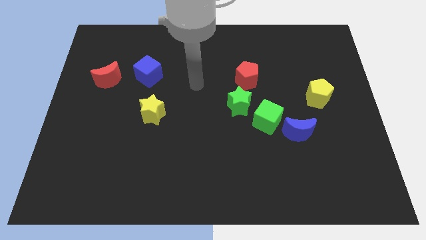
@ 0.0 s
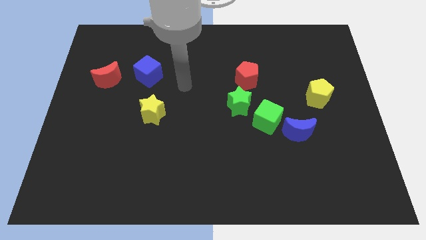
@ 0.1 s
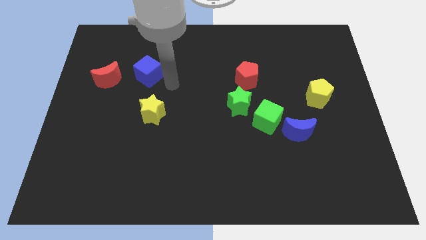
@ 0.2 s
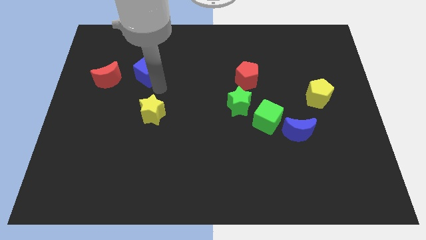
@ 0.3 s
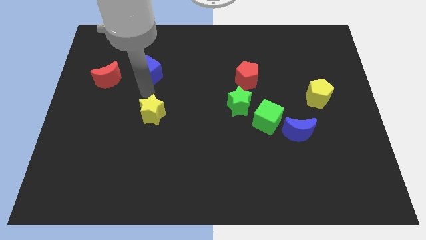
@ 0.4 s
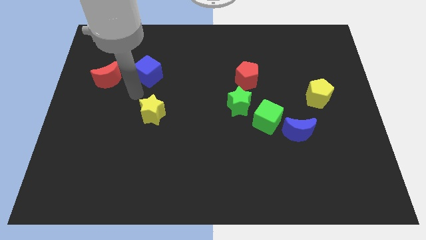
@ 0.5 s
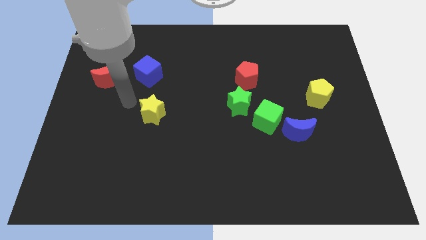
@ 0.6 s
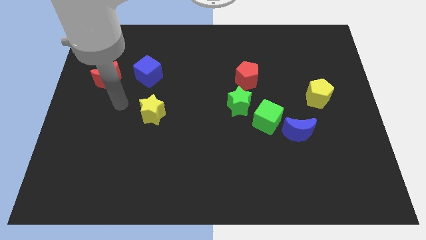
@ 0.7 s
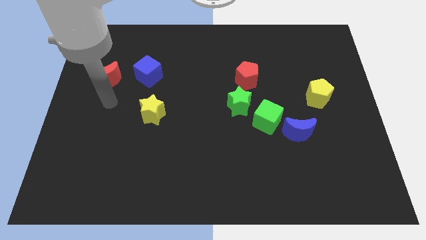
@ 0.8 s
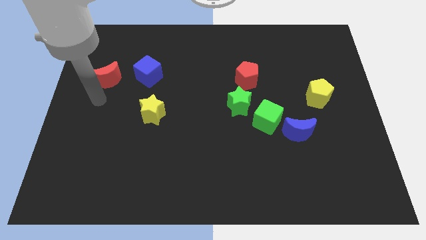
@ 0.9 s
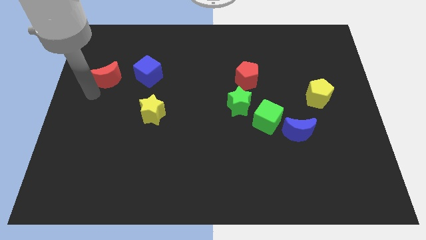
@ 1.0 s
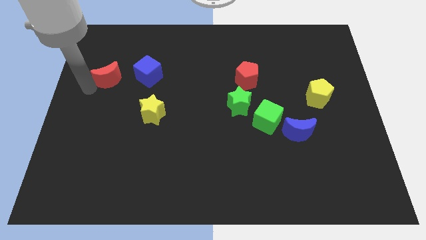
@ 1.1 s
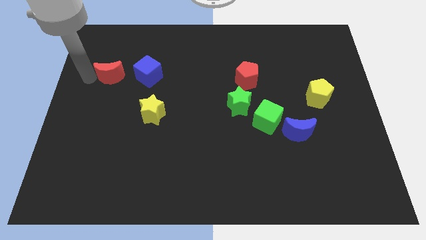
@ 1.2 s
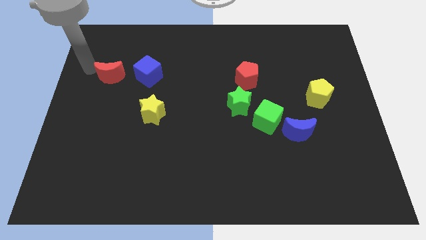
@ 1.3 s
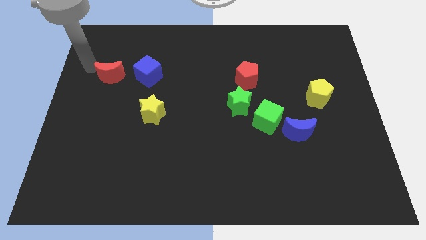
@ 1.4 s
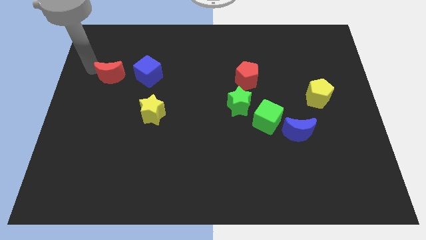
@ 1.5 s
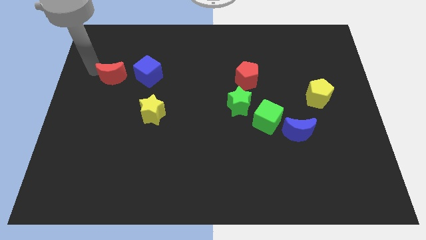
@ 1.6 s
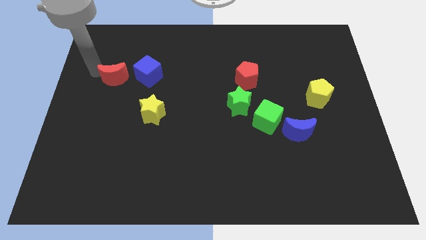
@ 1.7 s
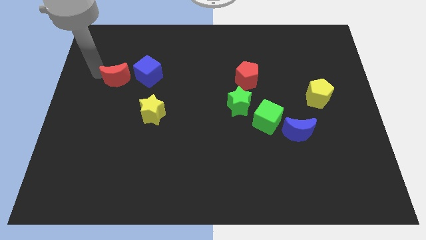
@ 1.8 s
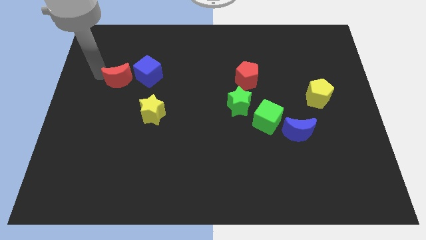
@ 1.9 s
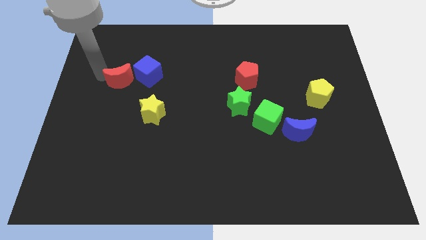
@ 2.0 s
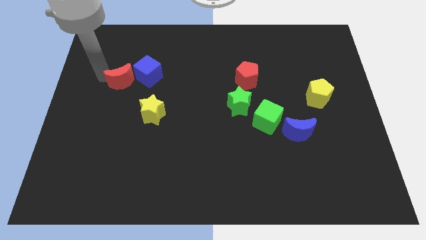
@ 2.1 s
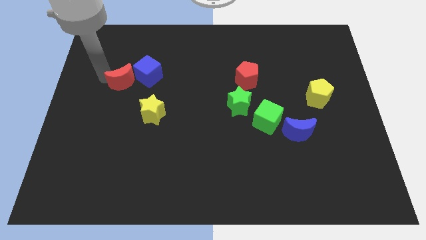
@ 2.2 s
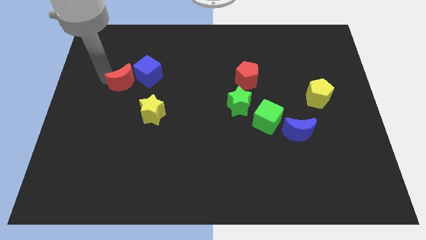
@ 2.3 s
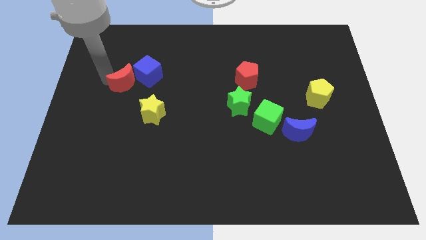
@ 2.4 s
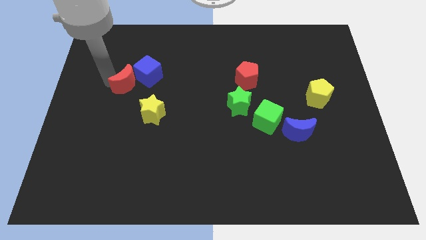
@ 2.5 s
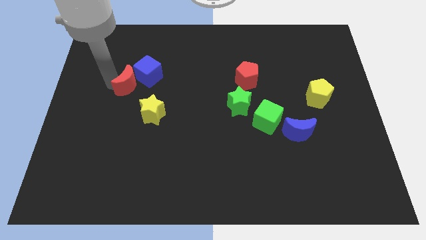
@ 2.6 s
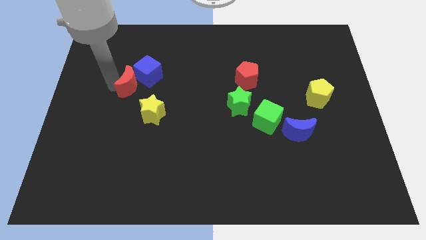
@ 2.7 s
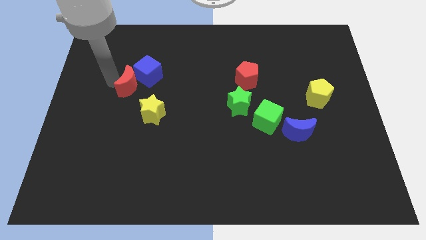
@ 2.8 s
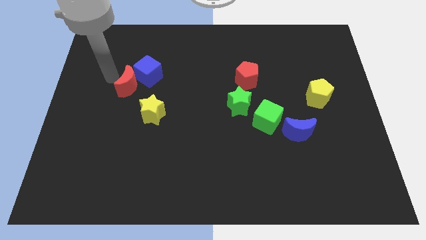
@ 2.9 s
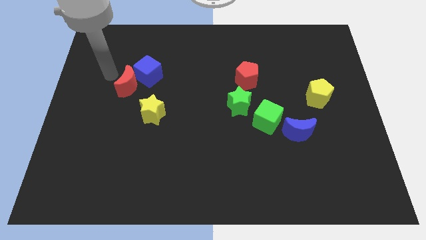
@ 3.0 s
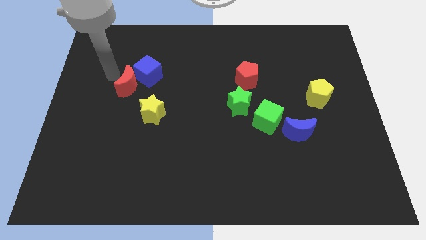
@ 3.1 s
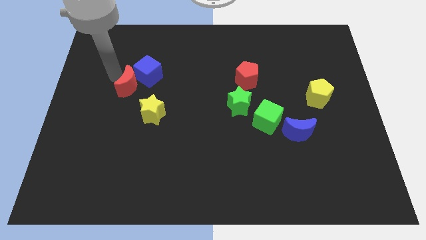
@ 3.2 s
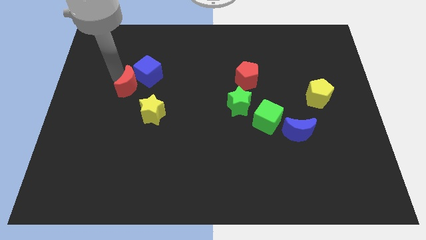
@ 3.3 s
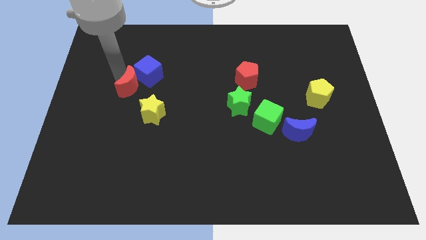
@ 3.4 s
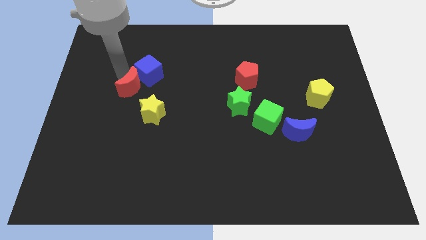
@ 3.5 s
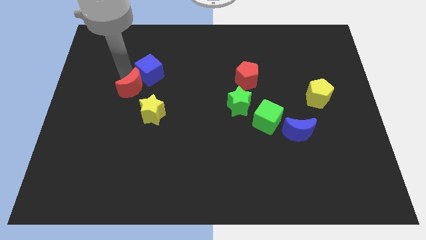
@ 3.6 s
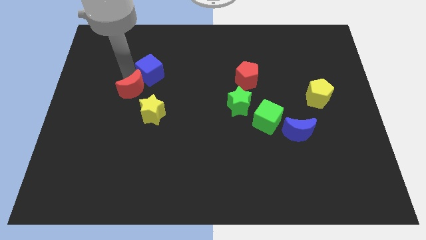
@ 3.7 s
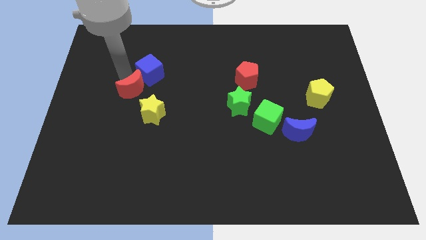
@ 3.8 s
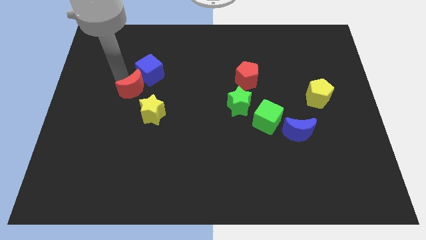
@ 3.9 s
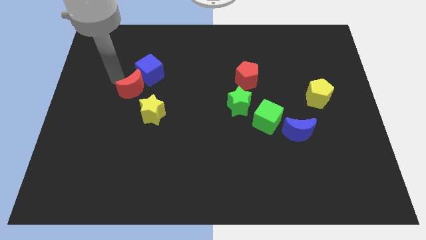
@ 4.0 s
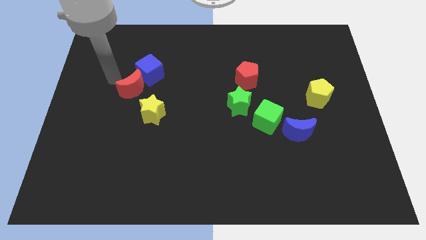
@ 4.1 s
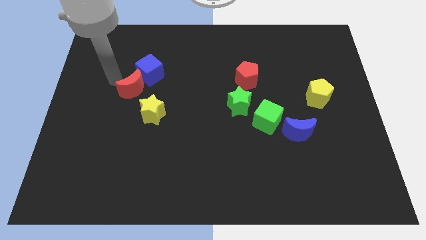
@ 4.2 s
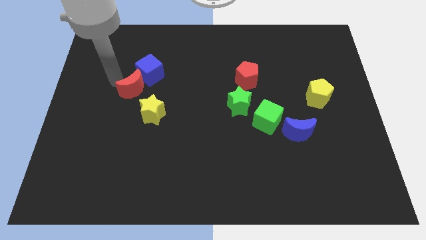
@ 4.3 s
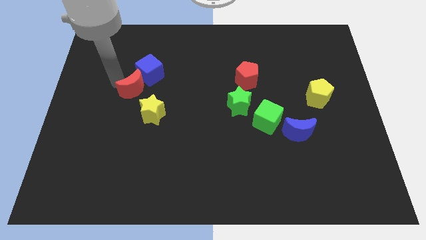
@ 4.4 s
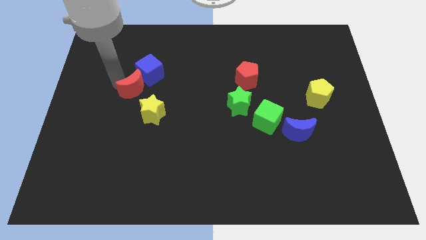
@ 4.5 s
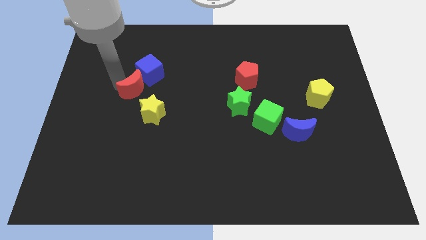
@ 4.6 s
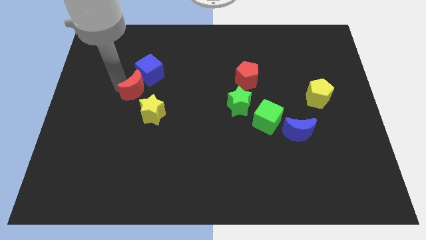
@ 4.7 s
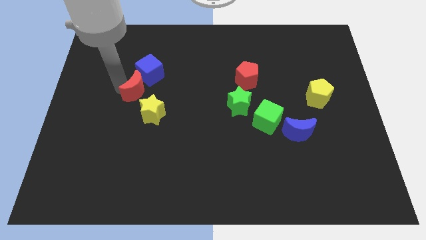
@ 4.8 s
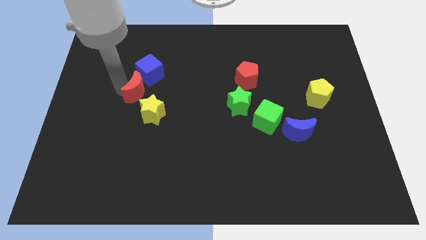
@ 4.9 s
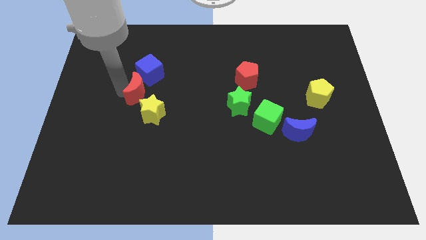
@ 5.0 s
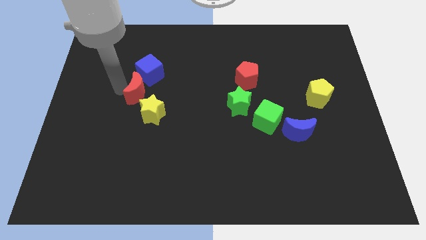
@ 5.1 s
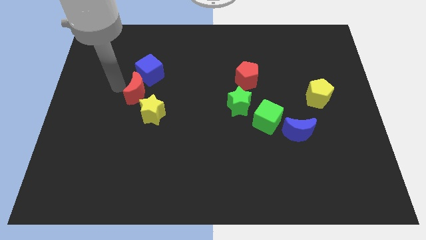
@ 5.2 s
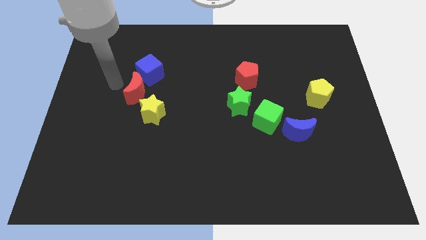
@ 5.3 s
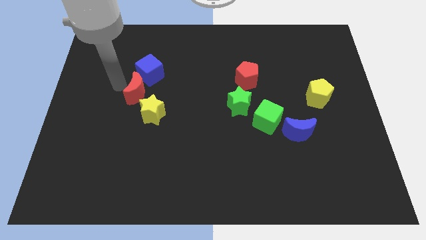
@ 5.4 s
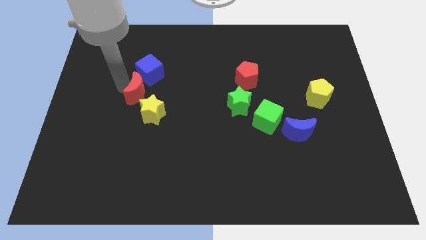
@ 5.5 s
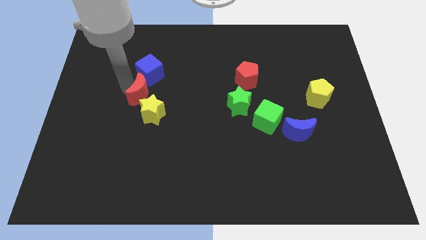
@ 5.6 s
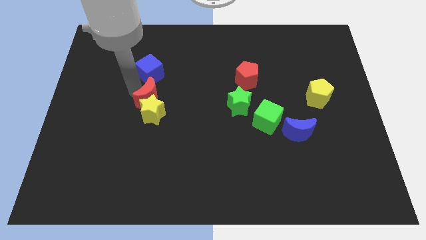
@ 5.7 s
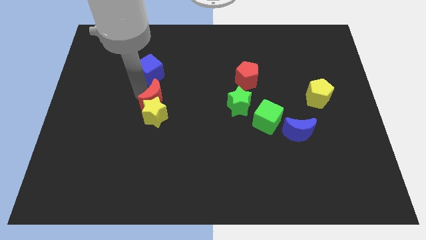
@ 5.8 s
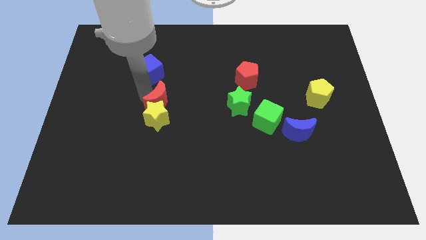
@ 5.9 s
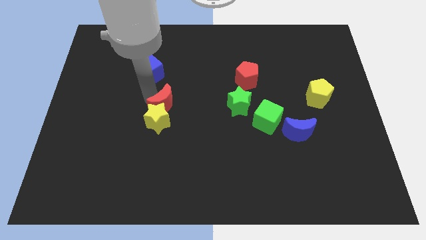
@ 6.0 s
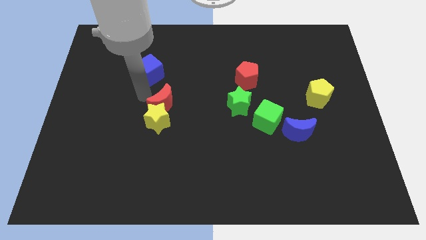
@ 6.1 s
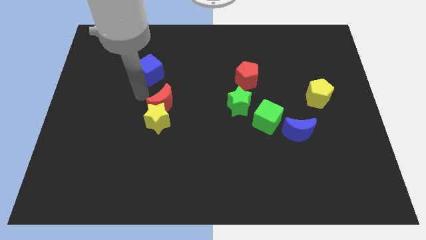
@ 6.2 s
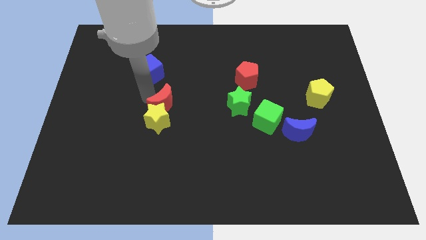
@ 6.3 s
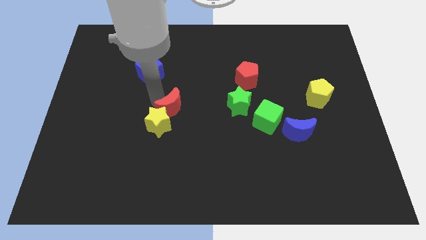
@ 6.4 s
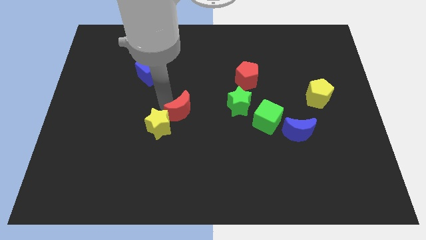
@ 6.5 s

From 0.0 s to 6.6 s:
slide the red moon just right of the yellow star

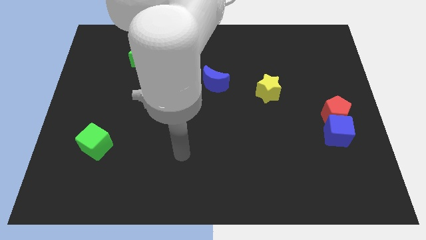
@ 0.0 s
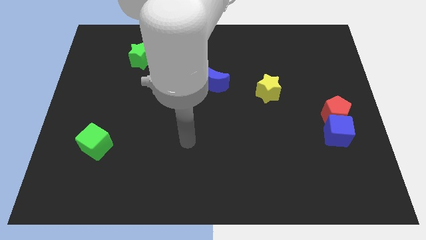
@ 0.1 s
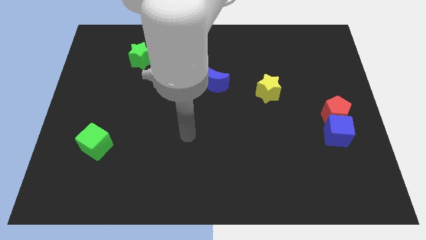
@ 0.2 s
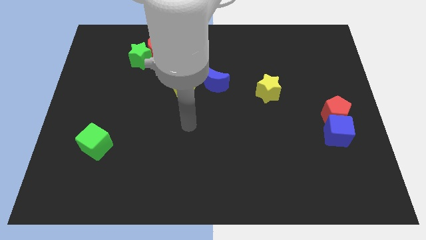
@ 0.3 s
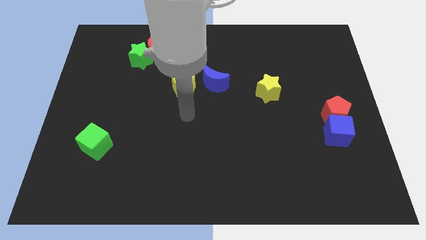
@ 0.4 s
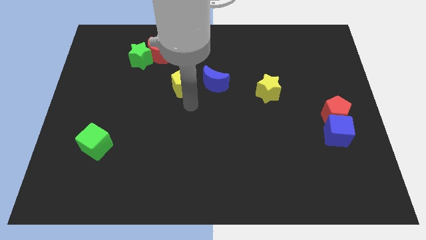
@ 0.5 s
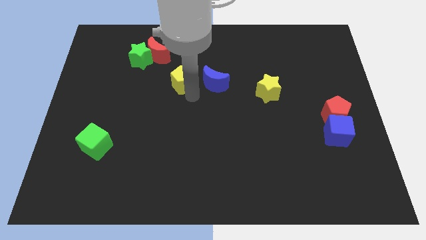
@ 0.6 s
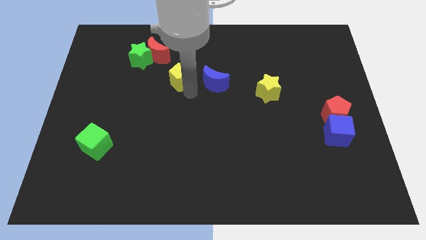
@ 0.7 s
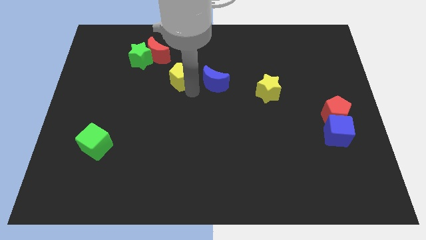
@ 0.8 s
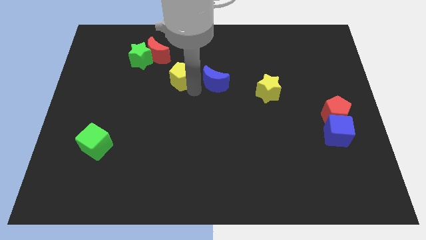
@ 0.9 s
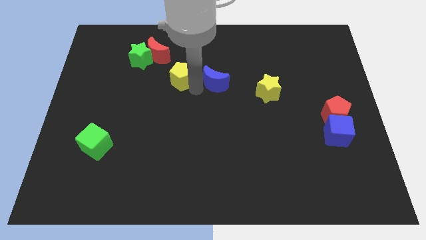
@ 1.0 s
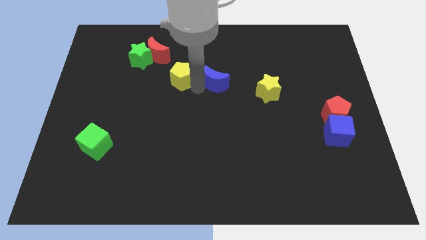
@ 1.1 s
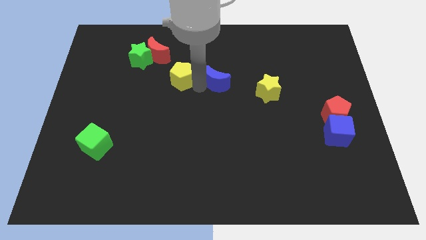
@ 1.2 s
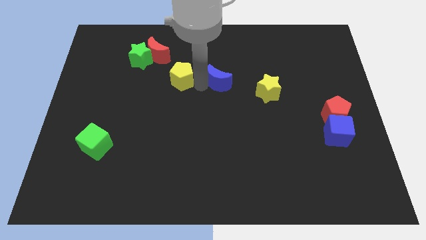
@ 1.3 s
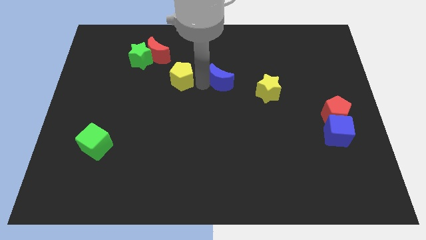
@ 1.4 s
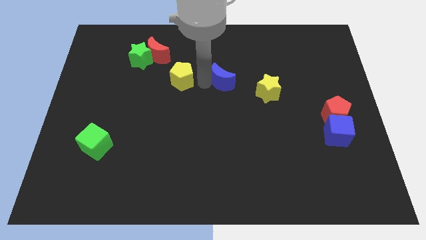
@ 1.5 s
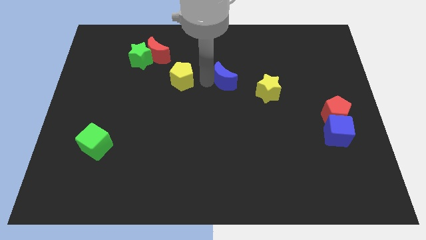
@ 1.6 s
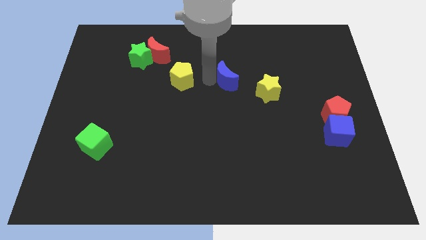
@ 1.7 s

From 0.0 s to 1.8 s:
put the blue moon diagonally up and to the left of the yellow star
